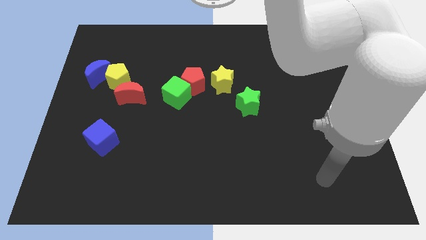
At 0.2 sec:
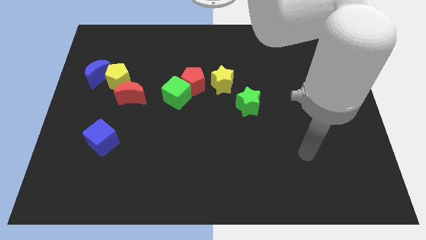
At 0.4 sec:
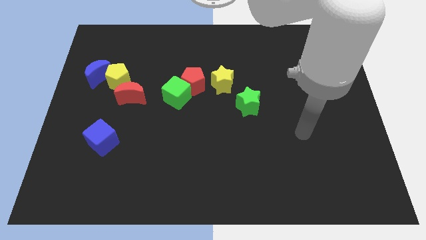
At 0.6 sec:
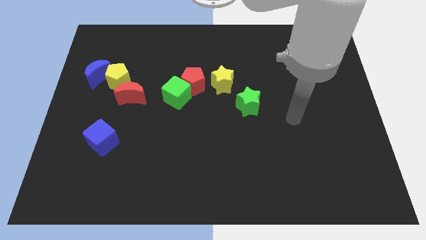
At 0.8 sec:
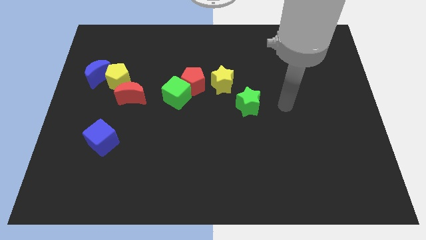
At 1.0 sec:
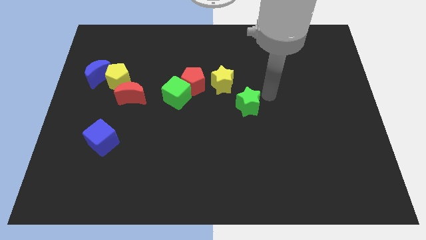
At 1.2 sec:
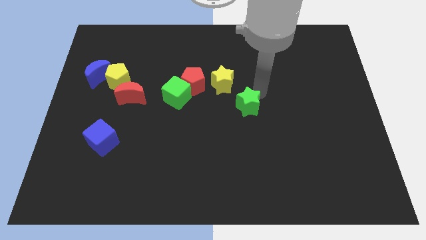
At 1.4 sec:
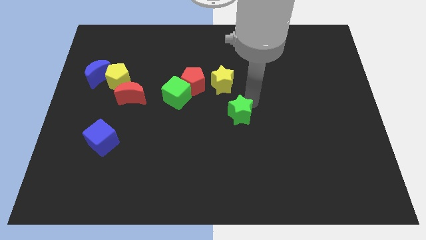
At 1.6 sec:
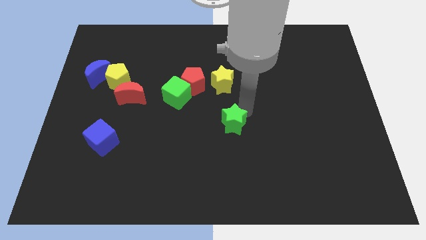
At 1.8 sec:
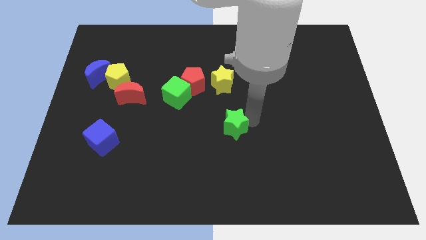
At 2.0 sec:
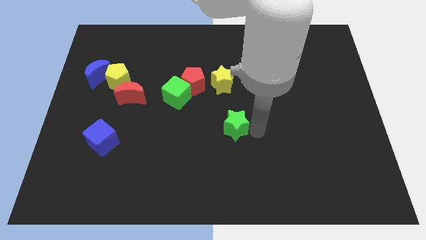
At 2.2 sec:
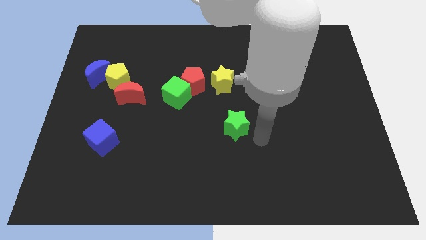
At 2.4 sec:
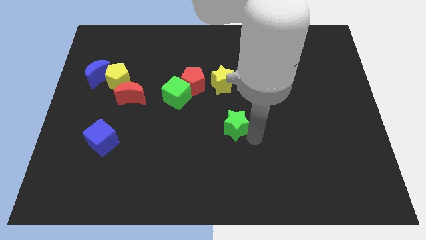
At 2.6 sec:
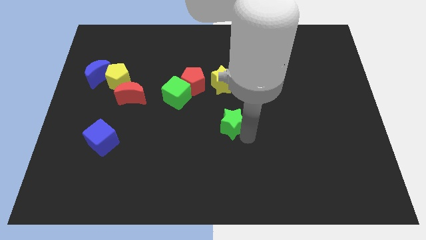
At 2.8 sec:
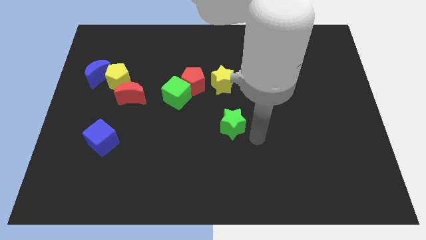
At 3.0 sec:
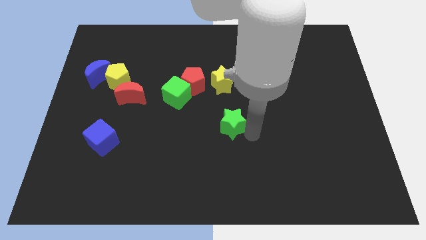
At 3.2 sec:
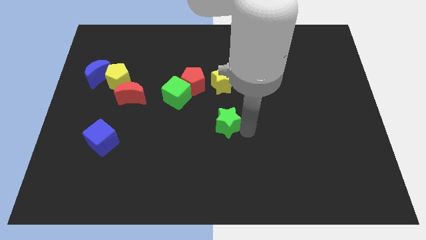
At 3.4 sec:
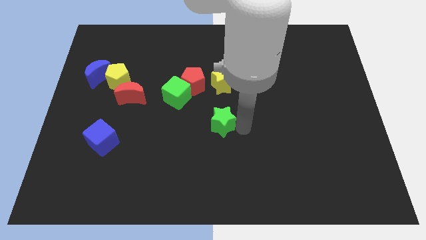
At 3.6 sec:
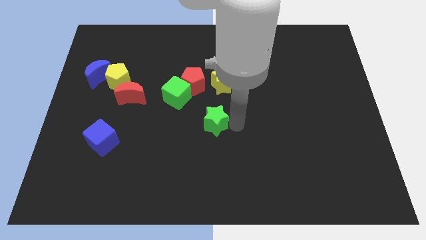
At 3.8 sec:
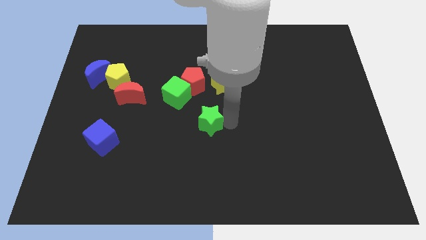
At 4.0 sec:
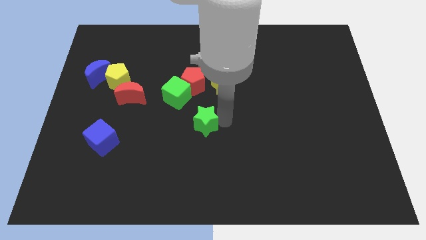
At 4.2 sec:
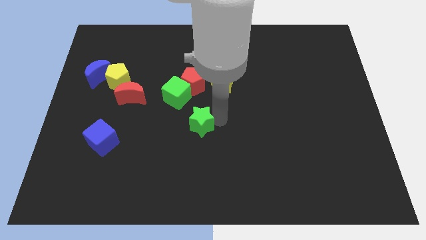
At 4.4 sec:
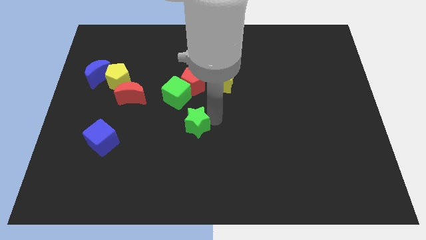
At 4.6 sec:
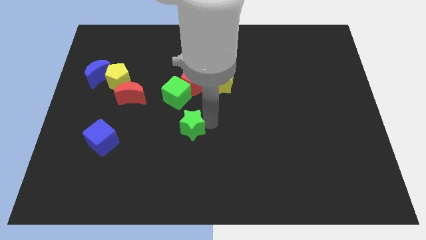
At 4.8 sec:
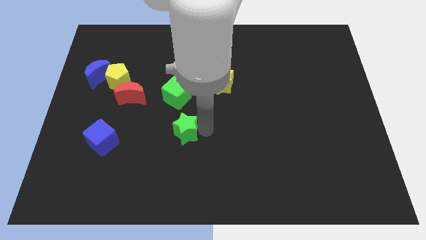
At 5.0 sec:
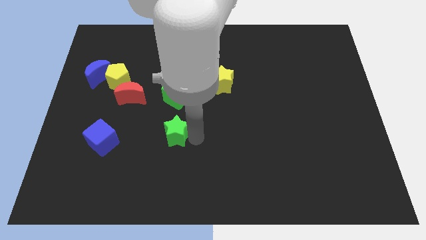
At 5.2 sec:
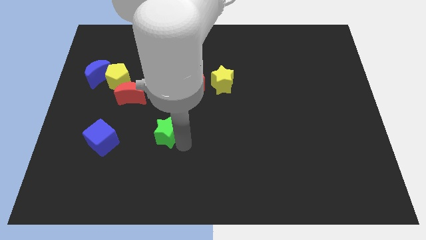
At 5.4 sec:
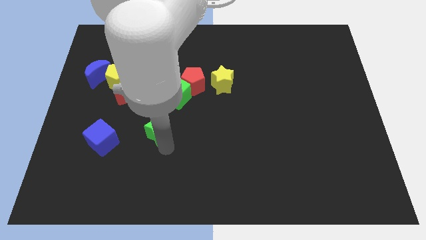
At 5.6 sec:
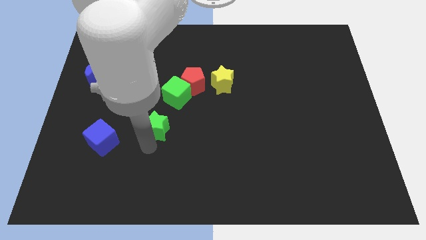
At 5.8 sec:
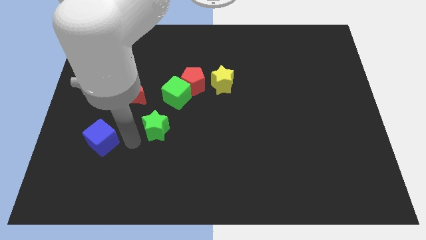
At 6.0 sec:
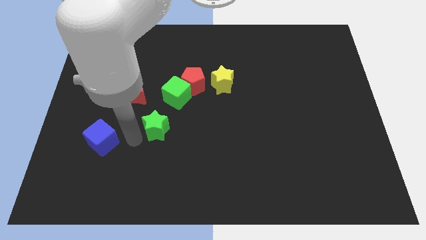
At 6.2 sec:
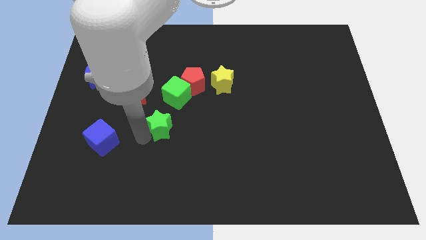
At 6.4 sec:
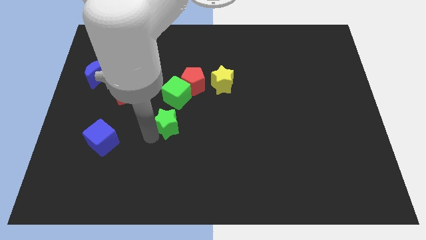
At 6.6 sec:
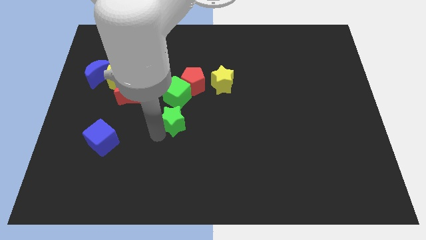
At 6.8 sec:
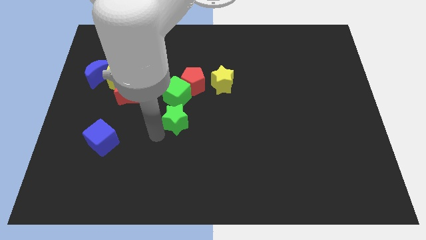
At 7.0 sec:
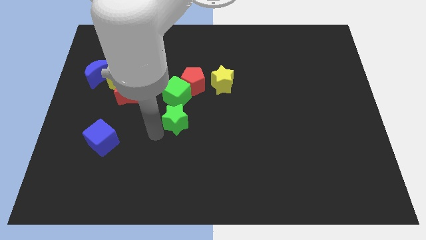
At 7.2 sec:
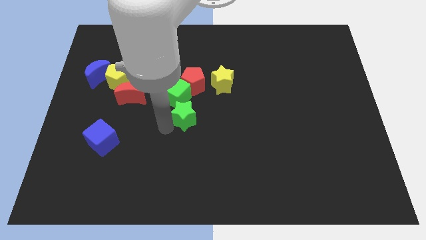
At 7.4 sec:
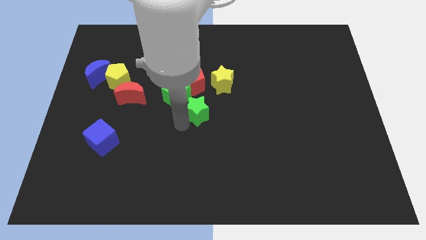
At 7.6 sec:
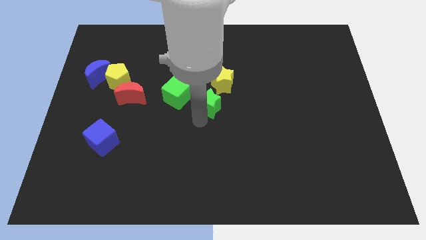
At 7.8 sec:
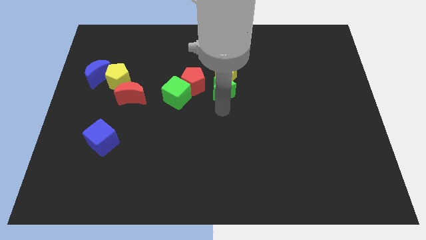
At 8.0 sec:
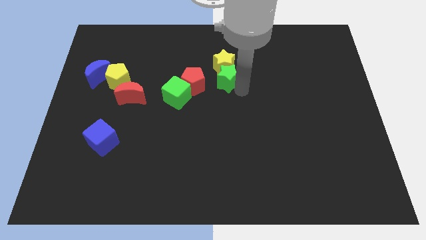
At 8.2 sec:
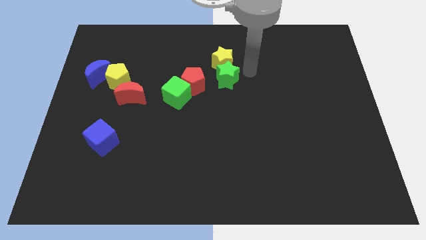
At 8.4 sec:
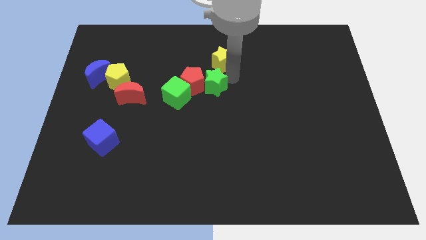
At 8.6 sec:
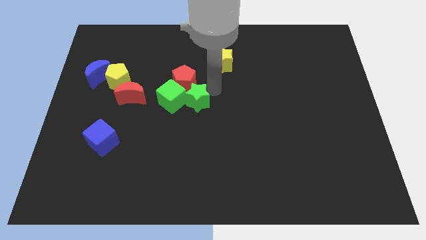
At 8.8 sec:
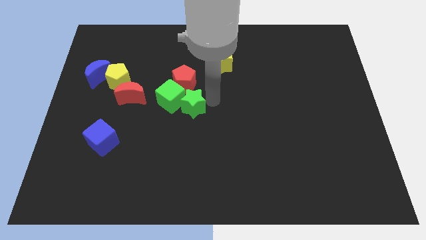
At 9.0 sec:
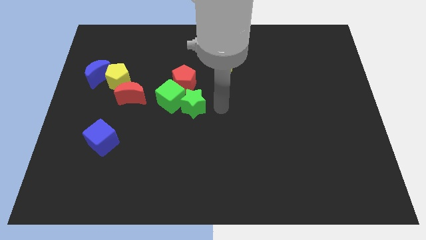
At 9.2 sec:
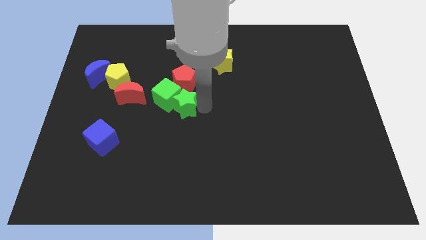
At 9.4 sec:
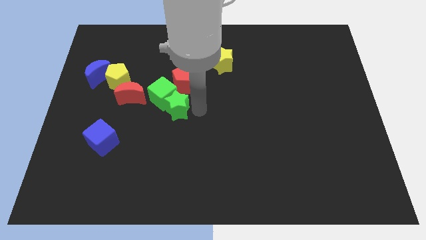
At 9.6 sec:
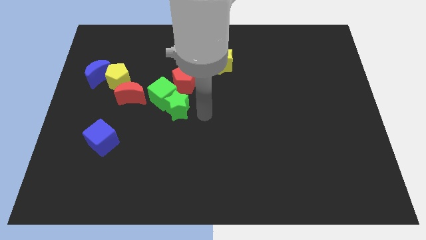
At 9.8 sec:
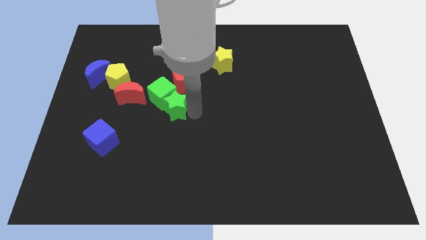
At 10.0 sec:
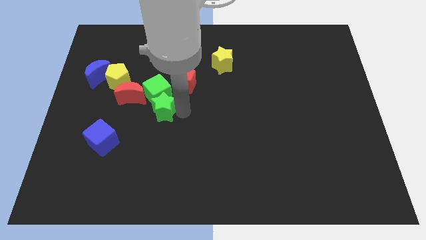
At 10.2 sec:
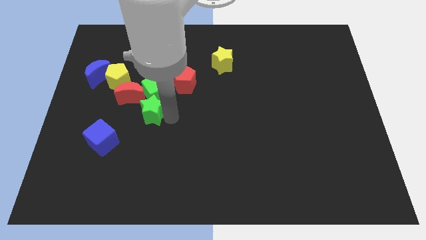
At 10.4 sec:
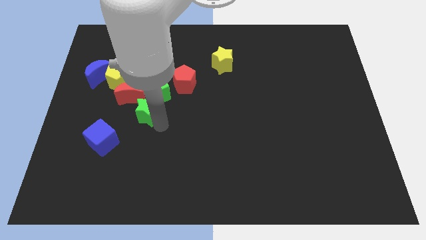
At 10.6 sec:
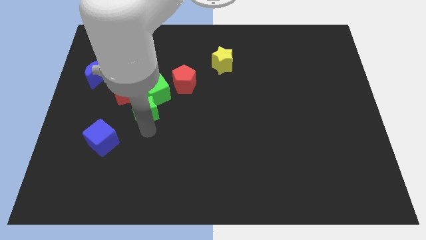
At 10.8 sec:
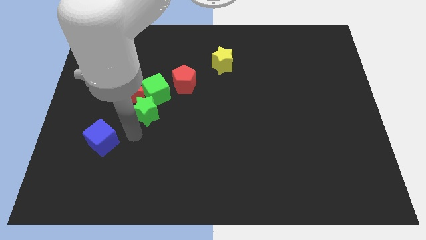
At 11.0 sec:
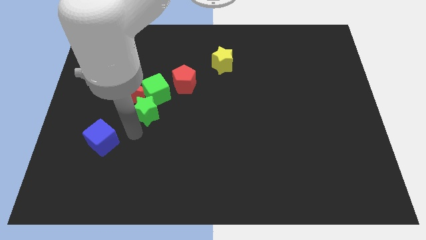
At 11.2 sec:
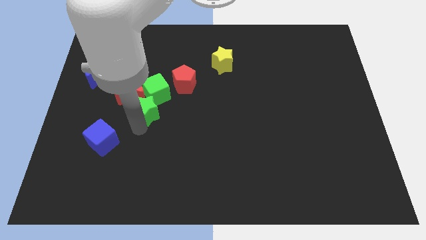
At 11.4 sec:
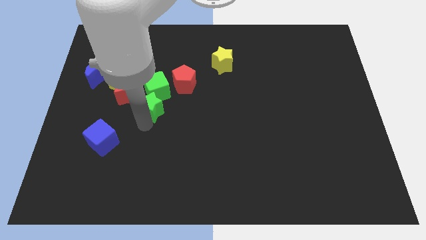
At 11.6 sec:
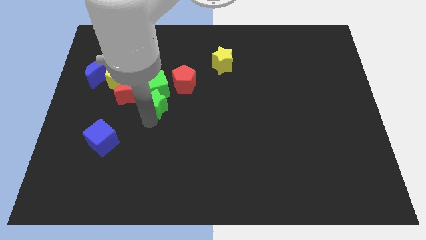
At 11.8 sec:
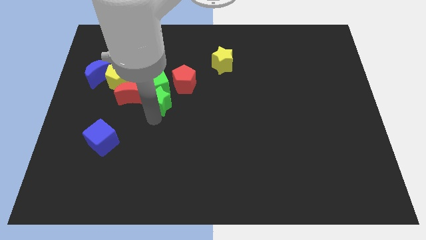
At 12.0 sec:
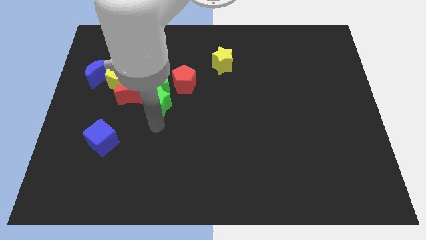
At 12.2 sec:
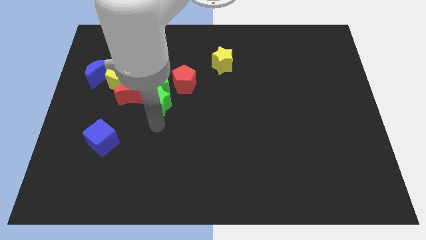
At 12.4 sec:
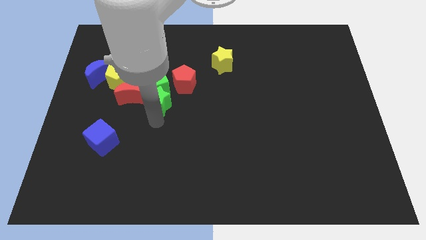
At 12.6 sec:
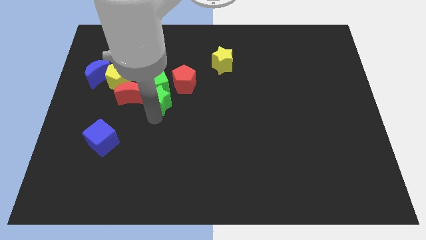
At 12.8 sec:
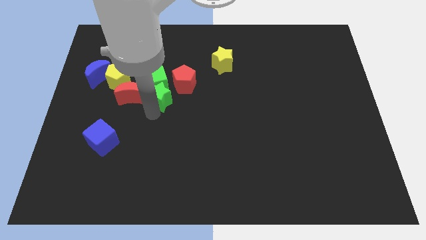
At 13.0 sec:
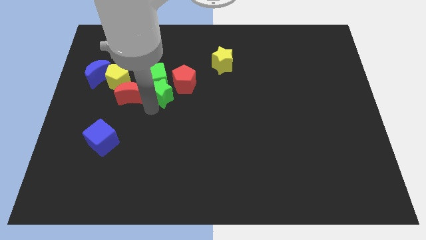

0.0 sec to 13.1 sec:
slide the green star diagonally up and to the right of the red moon
